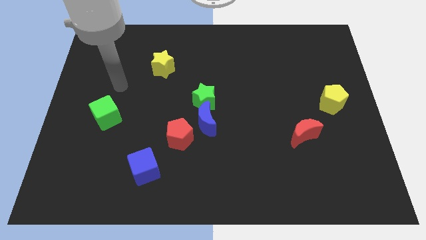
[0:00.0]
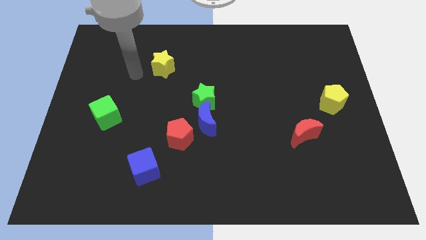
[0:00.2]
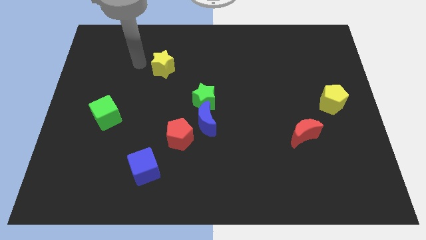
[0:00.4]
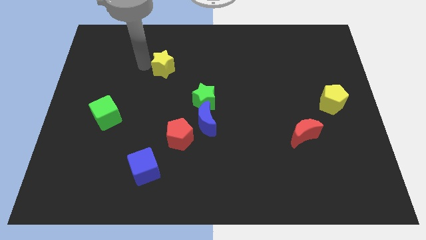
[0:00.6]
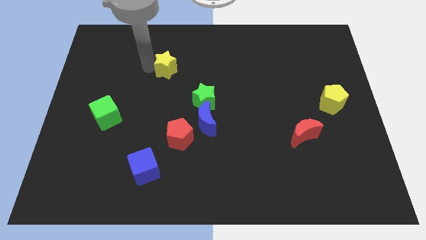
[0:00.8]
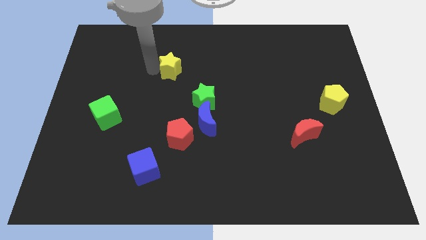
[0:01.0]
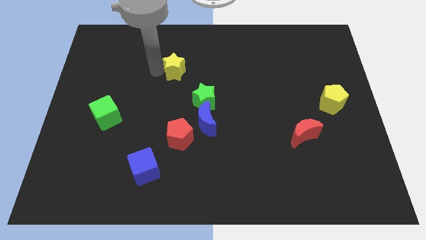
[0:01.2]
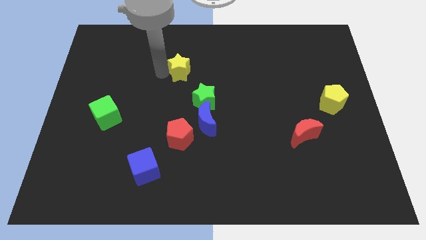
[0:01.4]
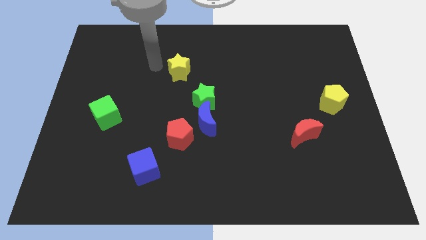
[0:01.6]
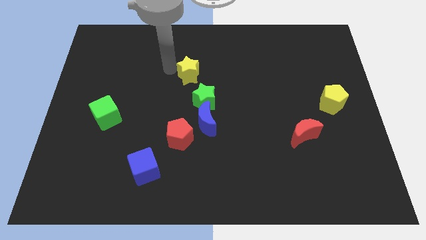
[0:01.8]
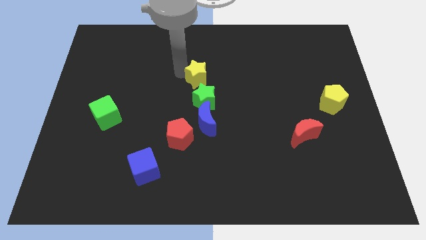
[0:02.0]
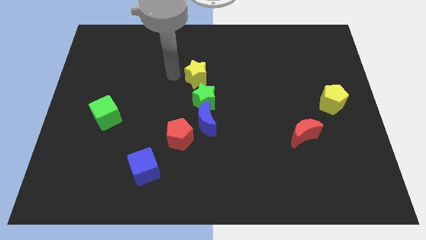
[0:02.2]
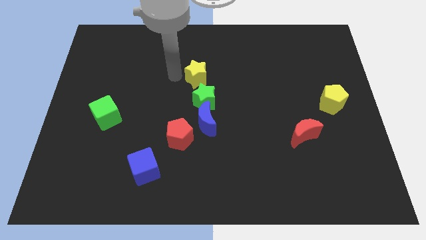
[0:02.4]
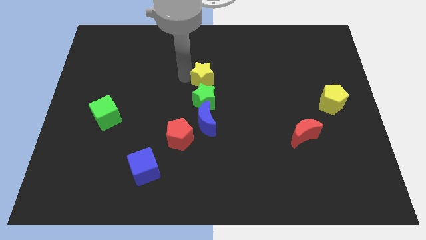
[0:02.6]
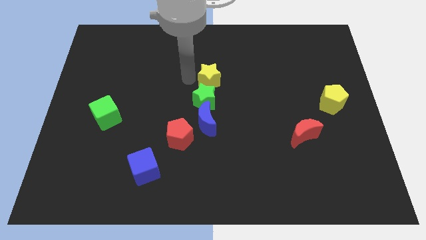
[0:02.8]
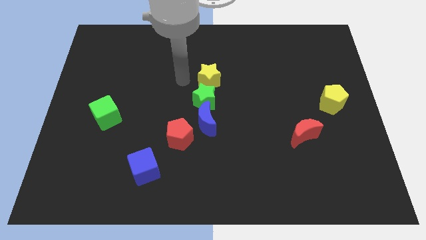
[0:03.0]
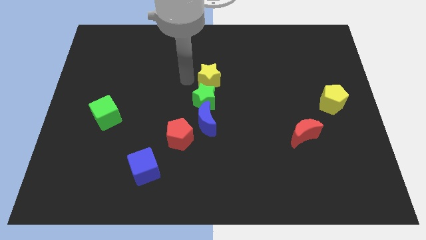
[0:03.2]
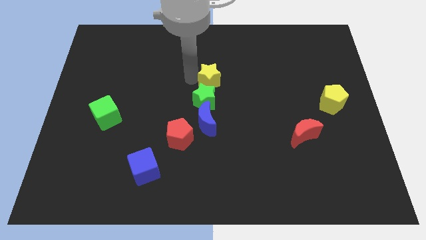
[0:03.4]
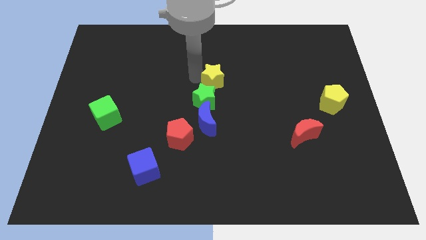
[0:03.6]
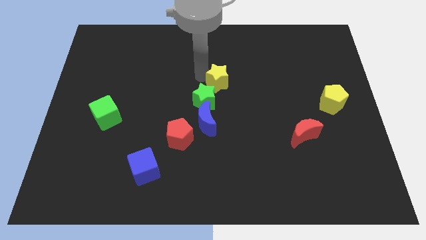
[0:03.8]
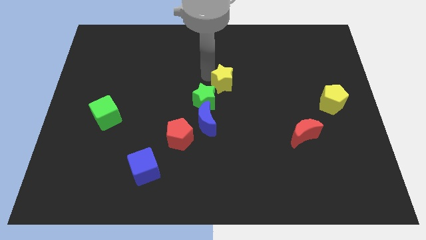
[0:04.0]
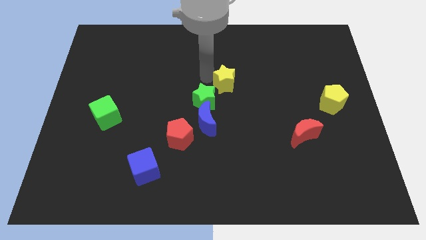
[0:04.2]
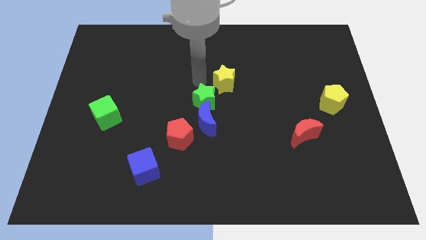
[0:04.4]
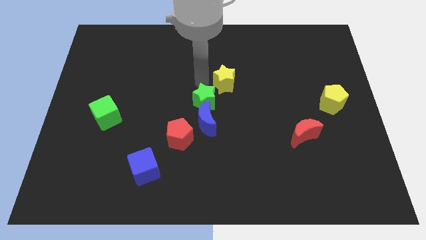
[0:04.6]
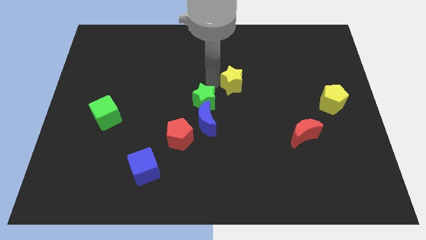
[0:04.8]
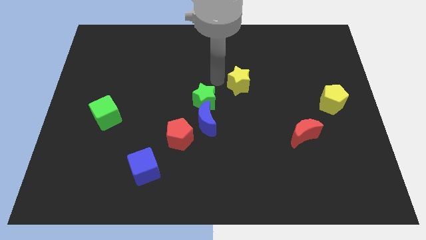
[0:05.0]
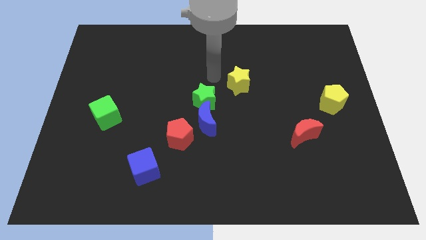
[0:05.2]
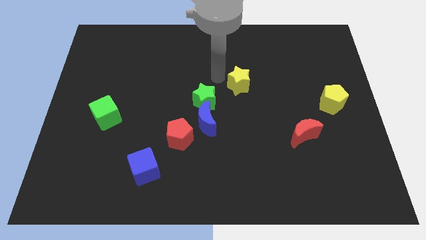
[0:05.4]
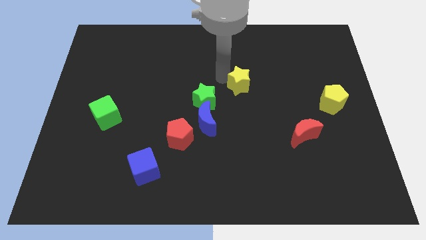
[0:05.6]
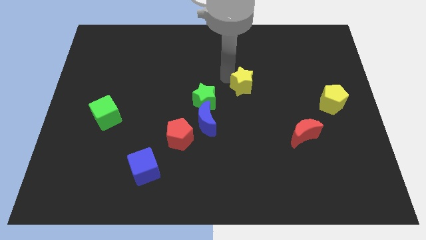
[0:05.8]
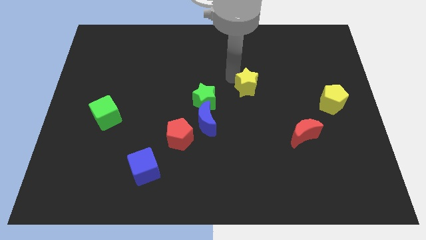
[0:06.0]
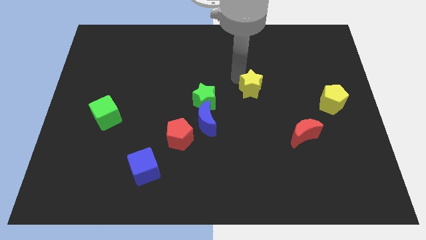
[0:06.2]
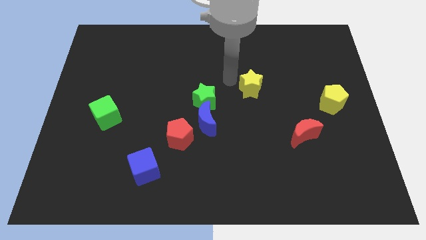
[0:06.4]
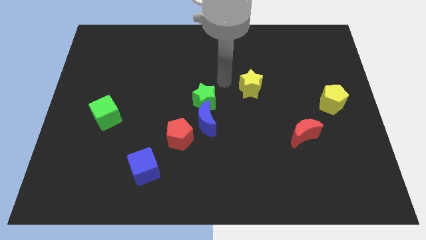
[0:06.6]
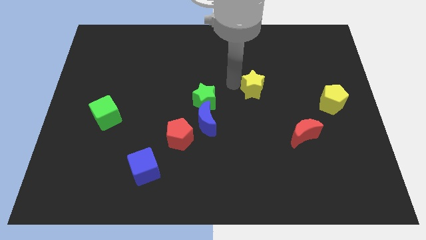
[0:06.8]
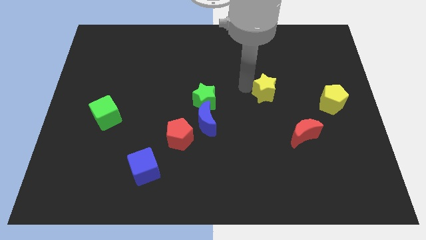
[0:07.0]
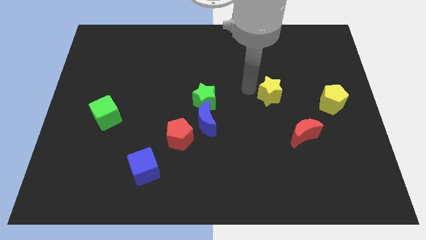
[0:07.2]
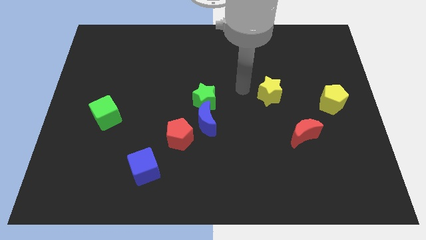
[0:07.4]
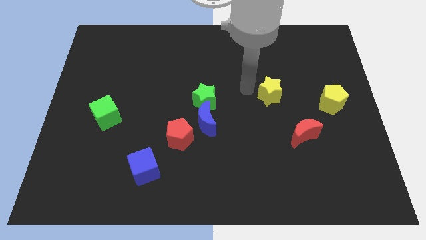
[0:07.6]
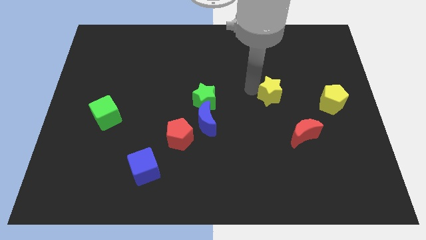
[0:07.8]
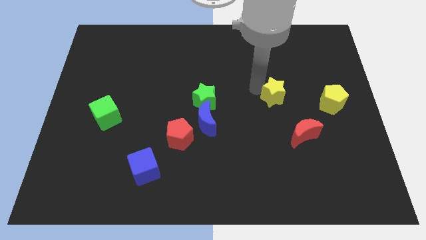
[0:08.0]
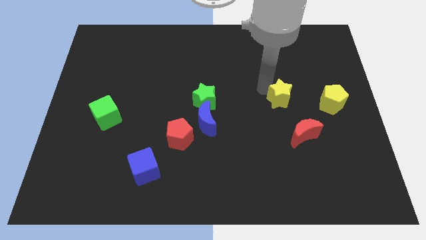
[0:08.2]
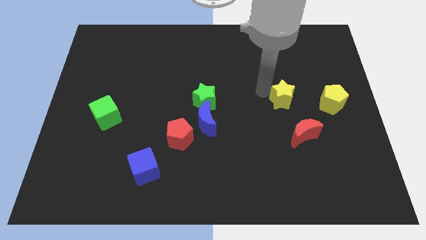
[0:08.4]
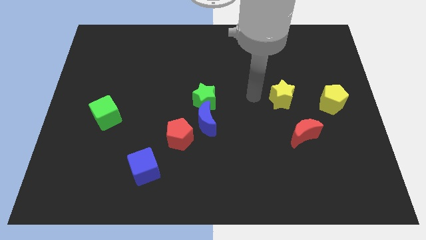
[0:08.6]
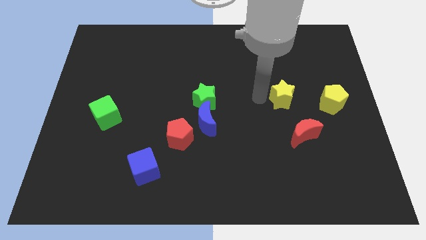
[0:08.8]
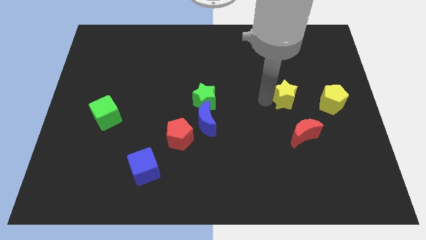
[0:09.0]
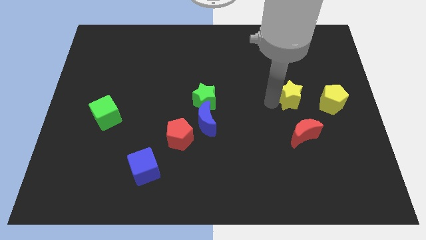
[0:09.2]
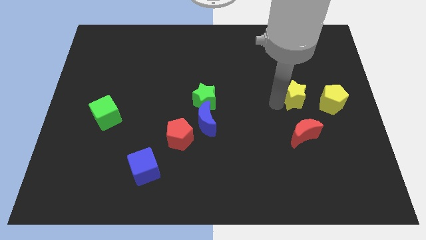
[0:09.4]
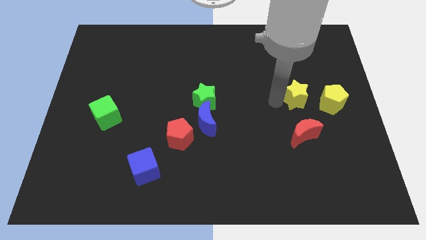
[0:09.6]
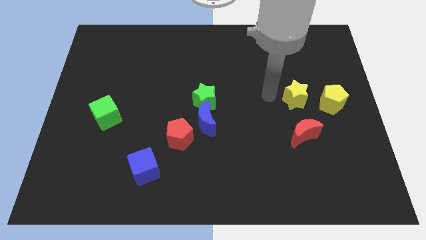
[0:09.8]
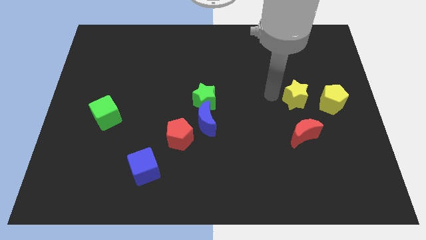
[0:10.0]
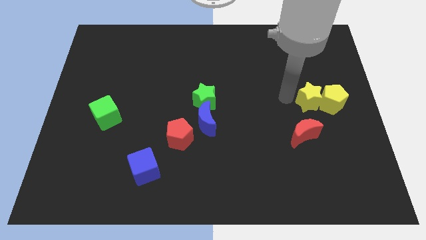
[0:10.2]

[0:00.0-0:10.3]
push the yellow star next to the yellow pentagon

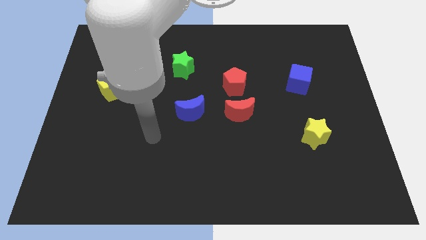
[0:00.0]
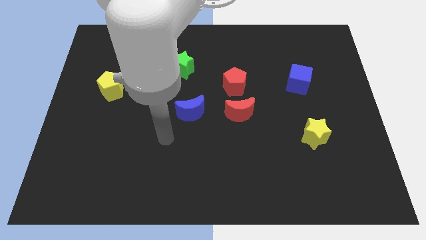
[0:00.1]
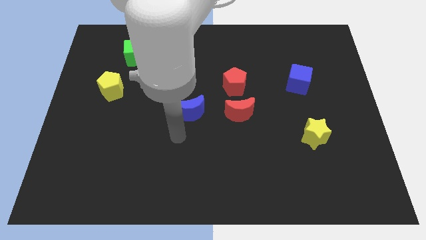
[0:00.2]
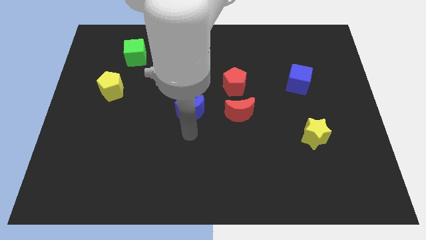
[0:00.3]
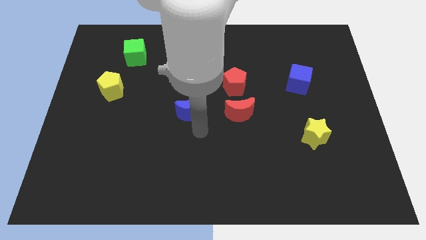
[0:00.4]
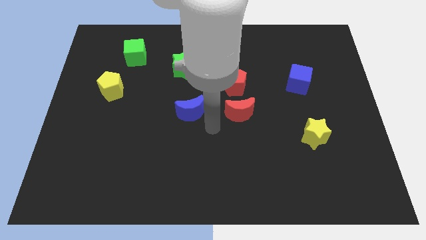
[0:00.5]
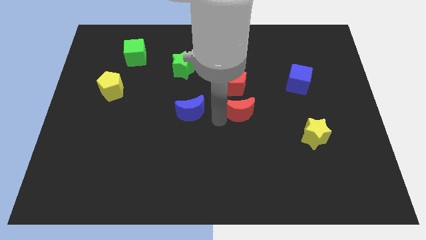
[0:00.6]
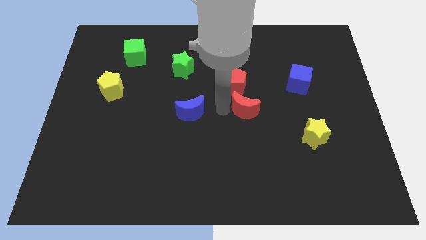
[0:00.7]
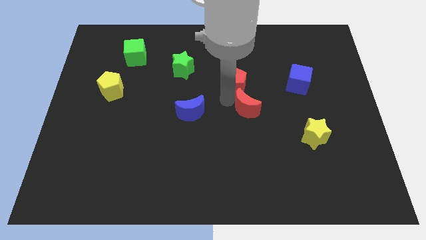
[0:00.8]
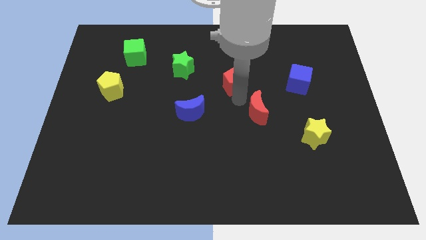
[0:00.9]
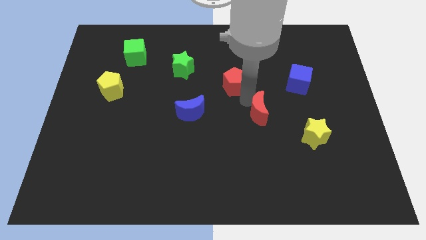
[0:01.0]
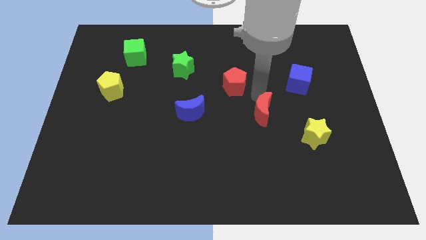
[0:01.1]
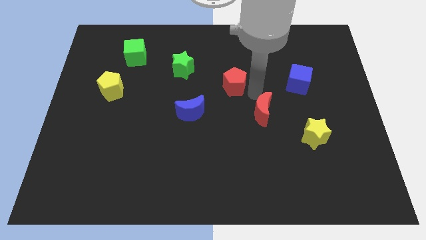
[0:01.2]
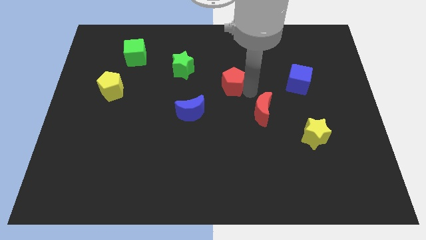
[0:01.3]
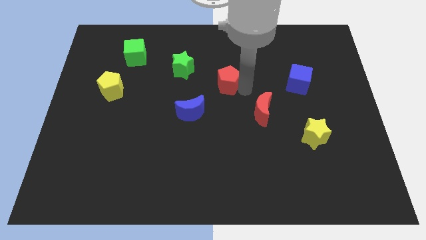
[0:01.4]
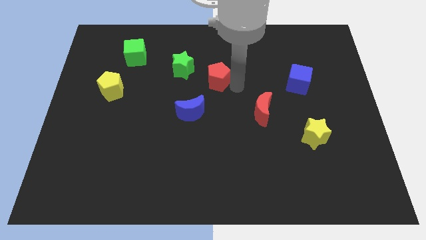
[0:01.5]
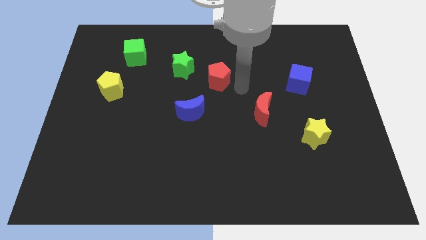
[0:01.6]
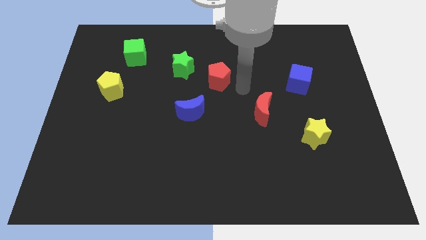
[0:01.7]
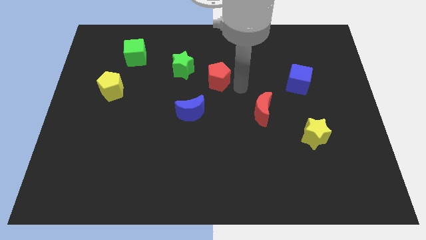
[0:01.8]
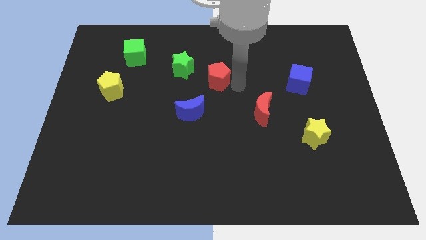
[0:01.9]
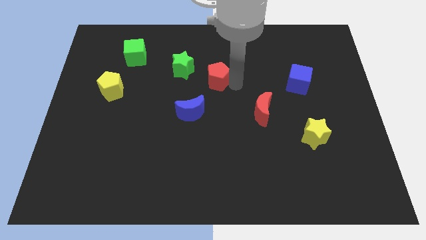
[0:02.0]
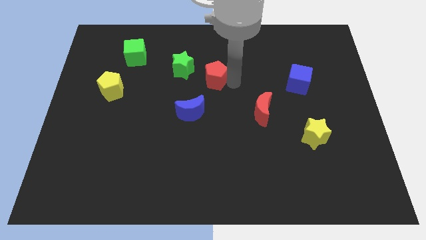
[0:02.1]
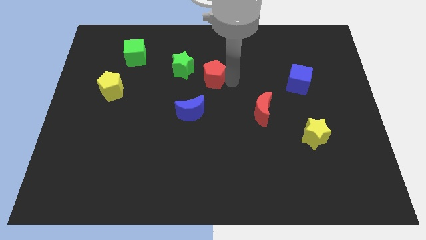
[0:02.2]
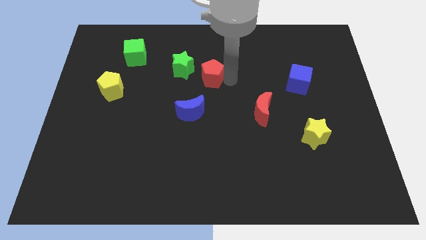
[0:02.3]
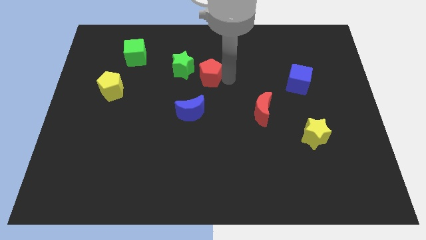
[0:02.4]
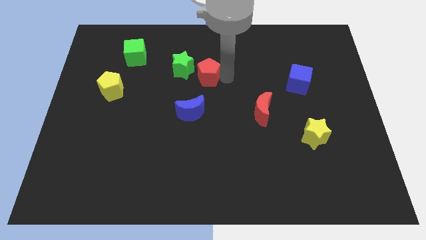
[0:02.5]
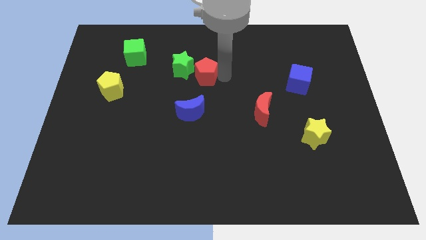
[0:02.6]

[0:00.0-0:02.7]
slide the red pentagon to the green star
